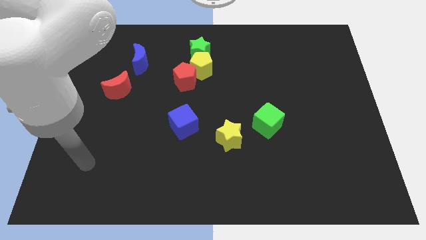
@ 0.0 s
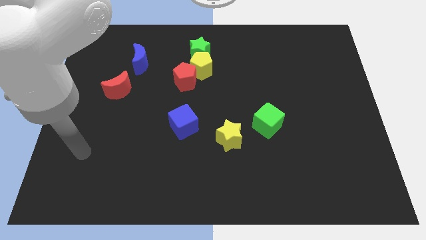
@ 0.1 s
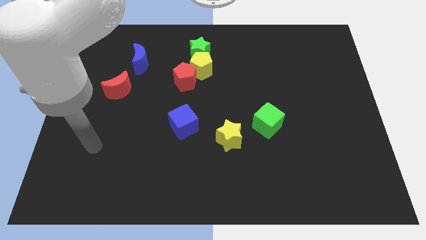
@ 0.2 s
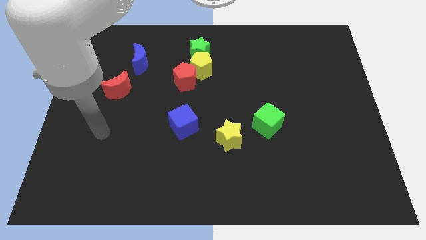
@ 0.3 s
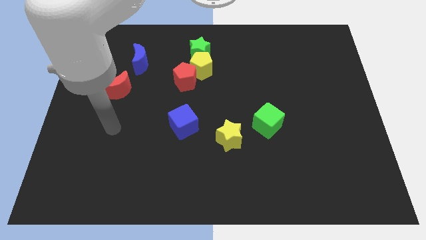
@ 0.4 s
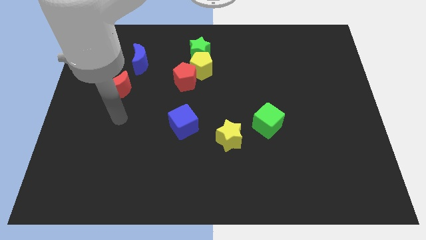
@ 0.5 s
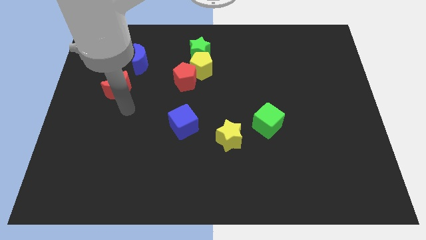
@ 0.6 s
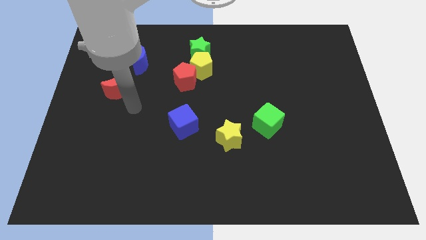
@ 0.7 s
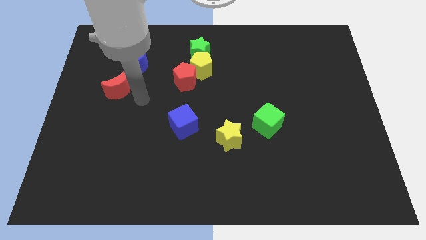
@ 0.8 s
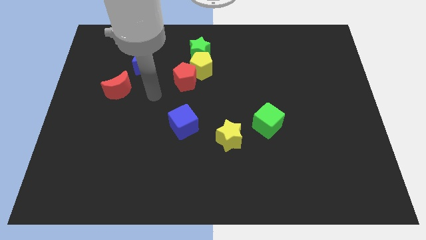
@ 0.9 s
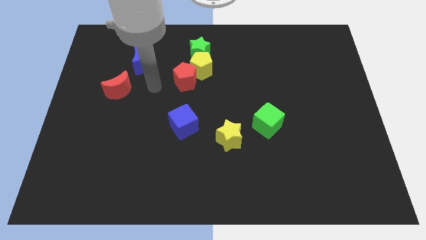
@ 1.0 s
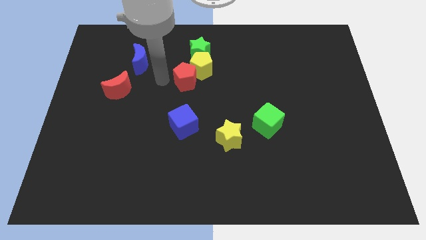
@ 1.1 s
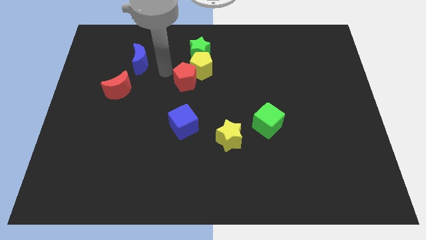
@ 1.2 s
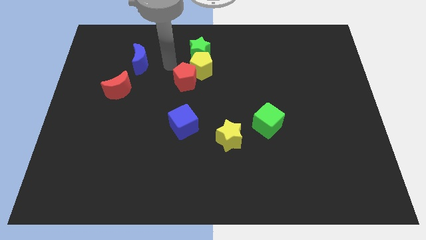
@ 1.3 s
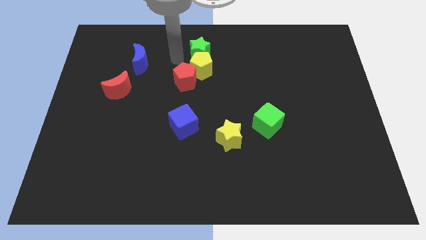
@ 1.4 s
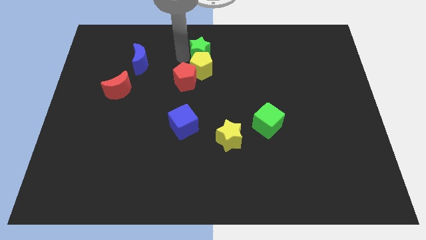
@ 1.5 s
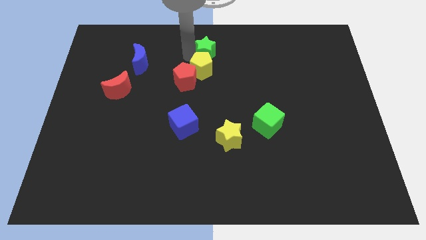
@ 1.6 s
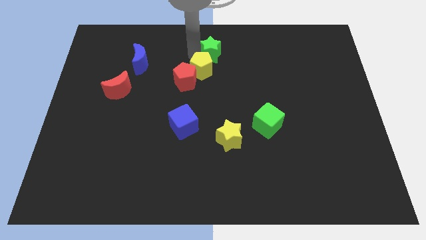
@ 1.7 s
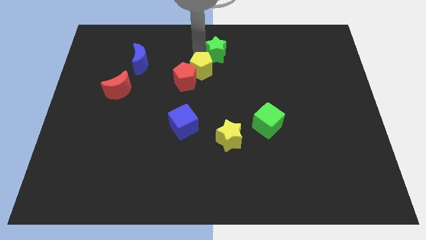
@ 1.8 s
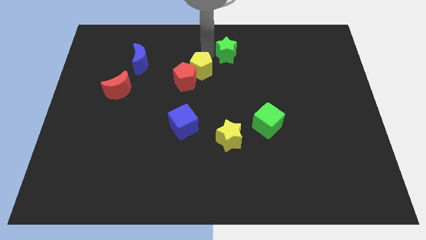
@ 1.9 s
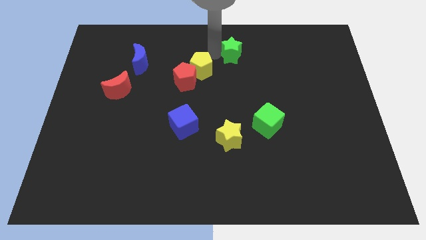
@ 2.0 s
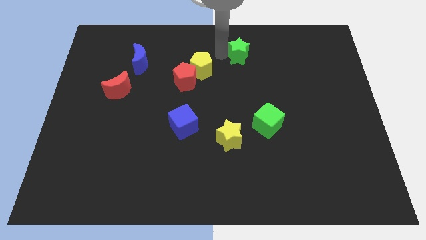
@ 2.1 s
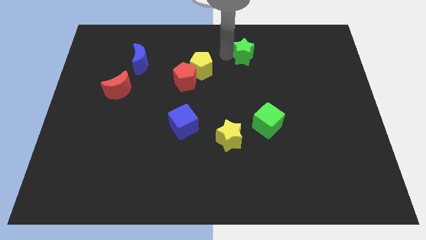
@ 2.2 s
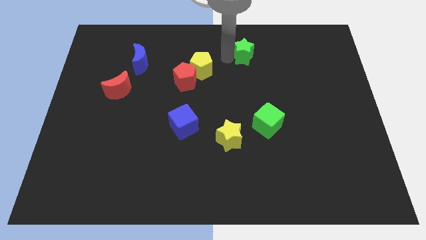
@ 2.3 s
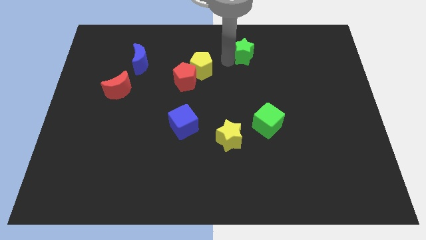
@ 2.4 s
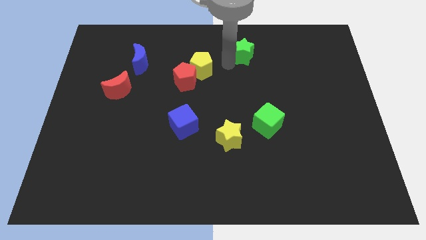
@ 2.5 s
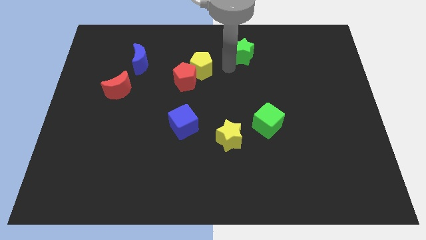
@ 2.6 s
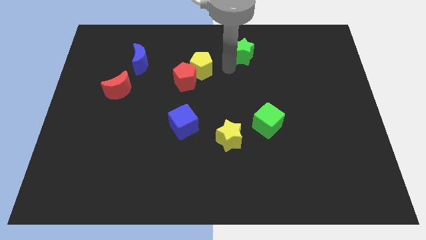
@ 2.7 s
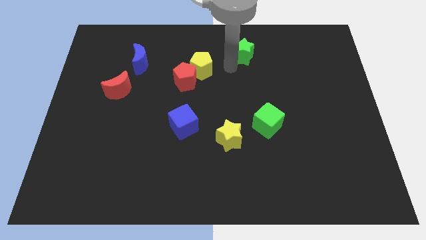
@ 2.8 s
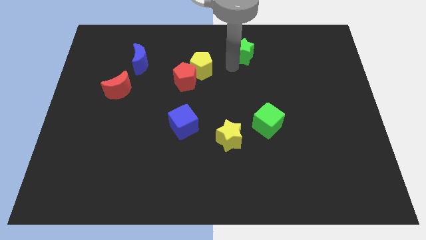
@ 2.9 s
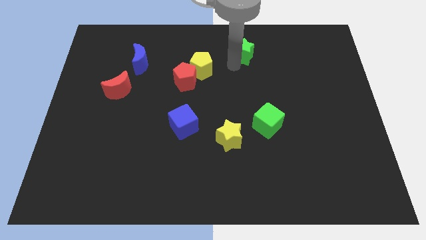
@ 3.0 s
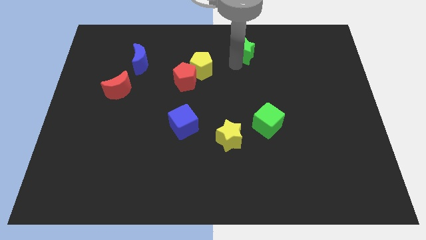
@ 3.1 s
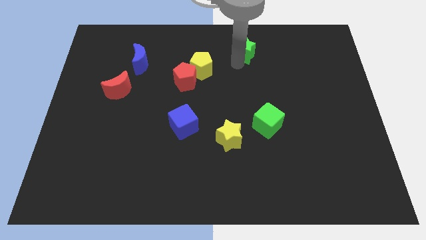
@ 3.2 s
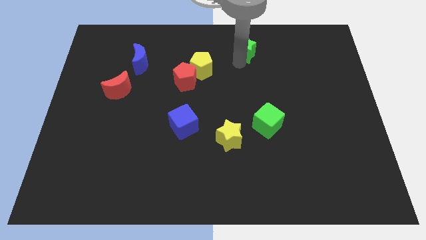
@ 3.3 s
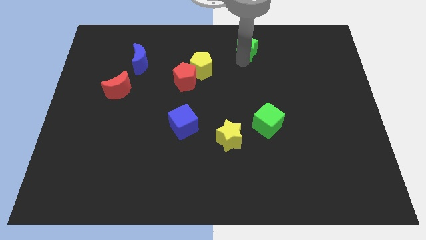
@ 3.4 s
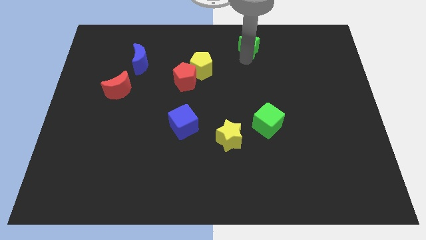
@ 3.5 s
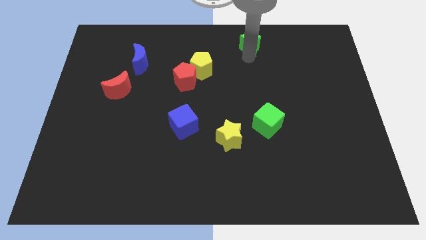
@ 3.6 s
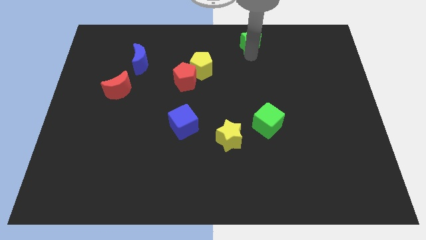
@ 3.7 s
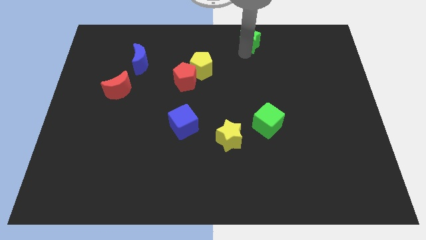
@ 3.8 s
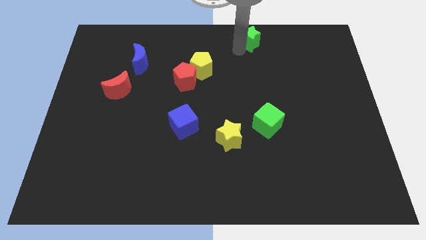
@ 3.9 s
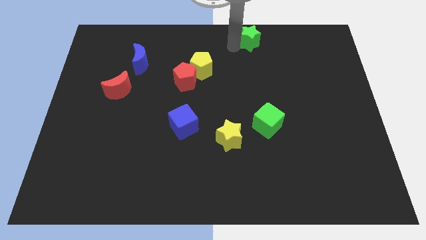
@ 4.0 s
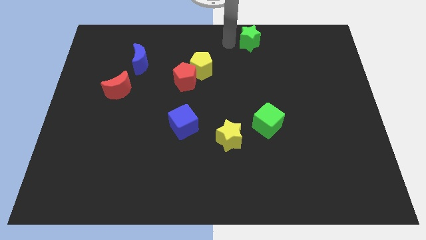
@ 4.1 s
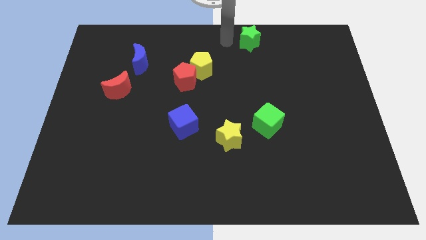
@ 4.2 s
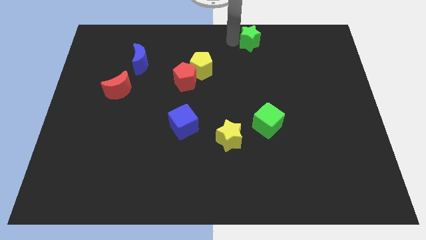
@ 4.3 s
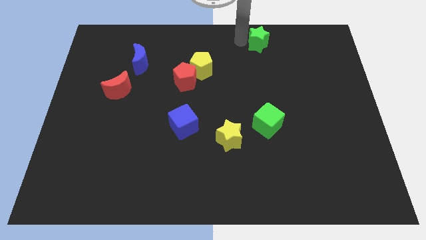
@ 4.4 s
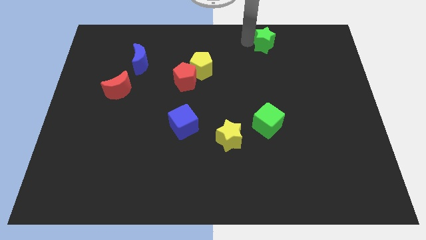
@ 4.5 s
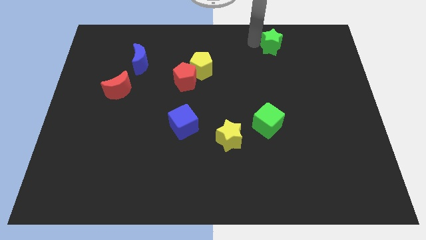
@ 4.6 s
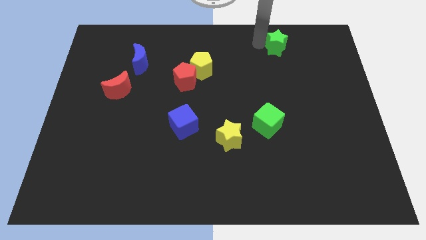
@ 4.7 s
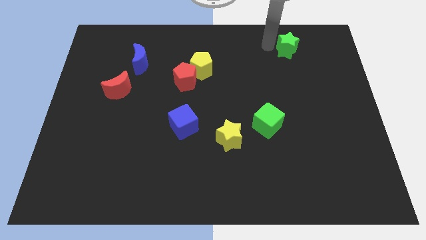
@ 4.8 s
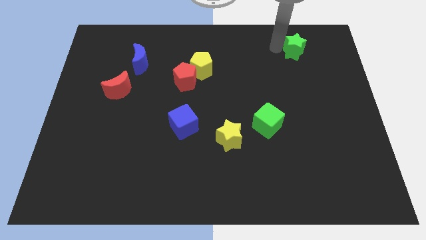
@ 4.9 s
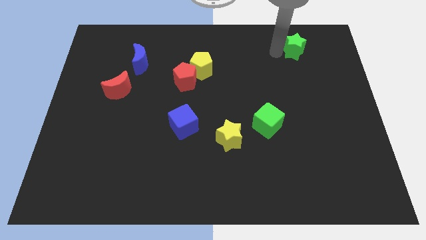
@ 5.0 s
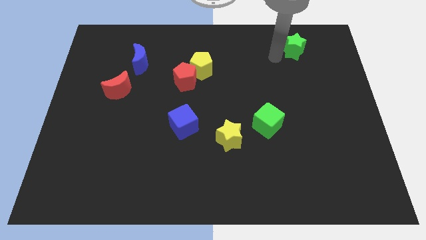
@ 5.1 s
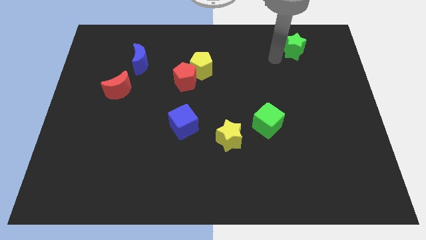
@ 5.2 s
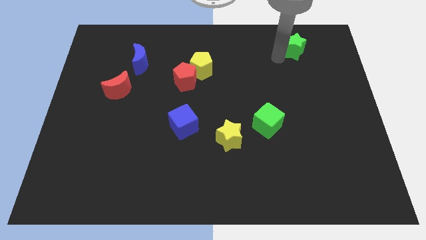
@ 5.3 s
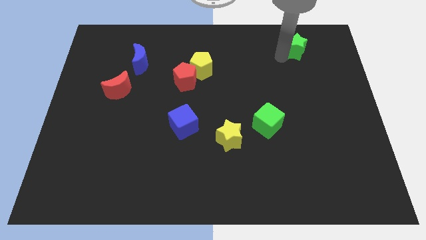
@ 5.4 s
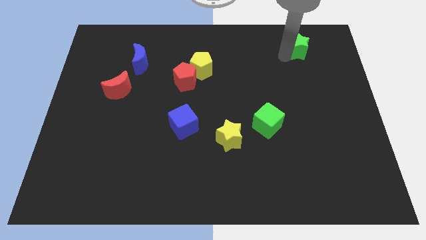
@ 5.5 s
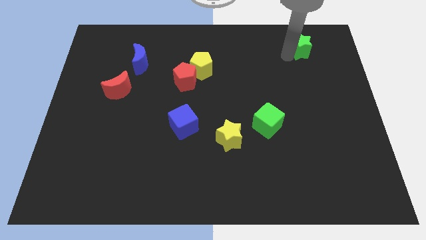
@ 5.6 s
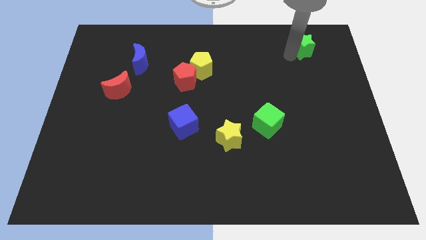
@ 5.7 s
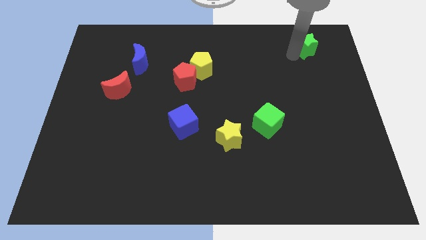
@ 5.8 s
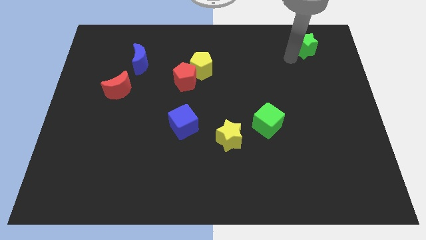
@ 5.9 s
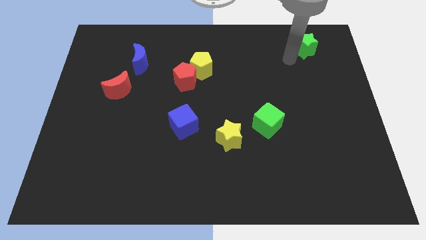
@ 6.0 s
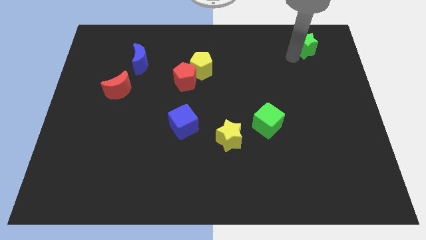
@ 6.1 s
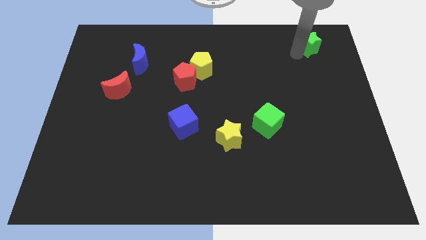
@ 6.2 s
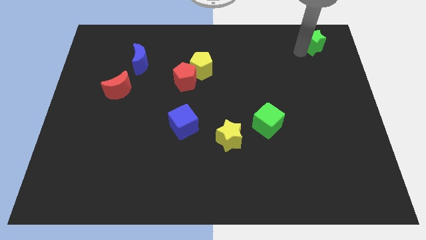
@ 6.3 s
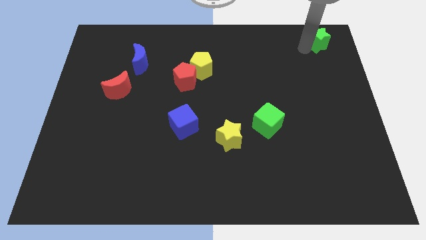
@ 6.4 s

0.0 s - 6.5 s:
push the green star to the top right
